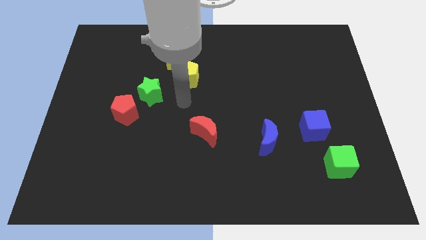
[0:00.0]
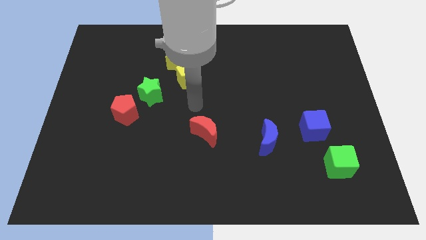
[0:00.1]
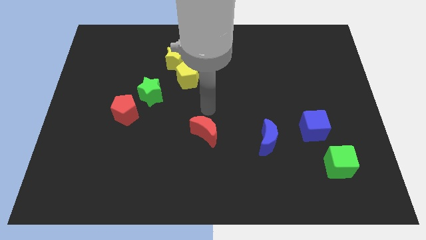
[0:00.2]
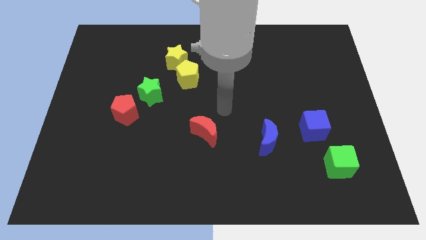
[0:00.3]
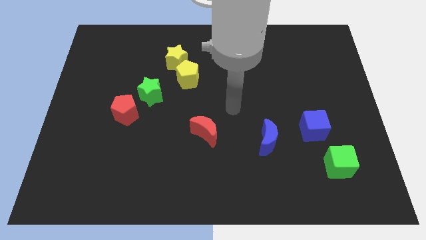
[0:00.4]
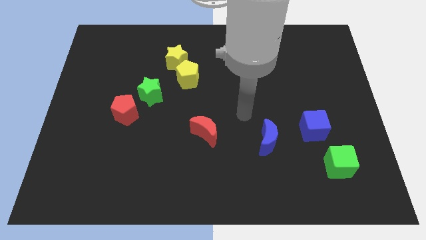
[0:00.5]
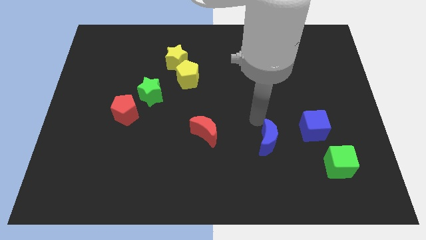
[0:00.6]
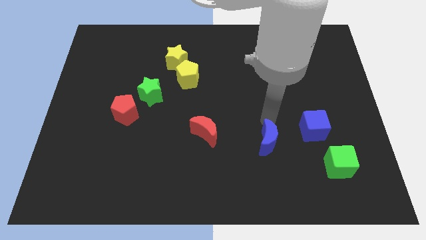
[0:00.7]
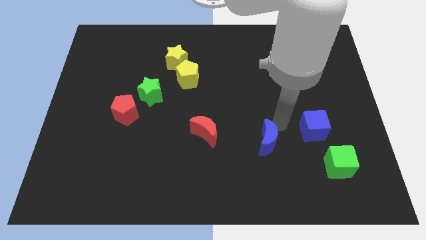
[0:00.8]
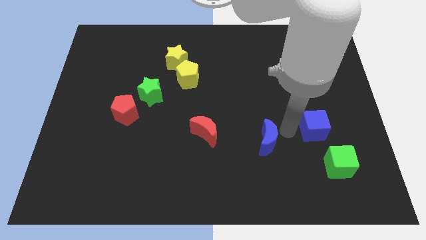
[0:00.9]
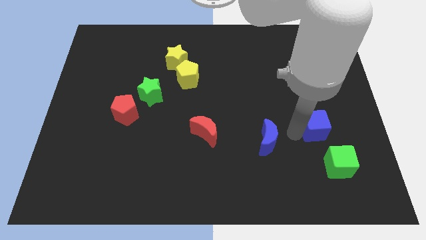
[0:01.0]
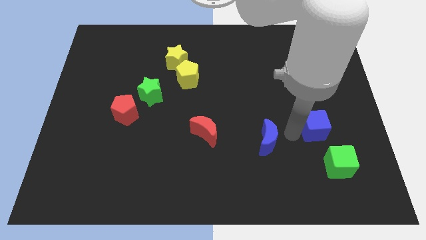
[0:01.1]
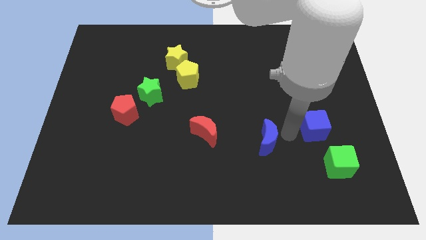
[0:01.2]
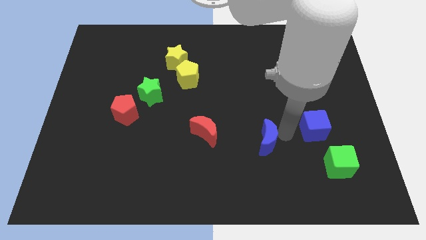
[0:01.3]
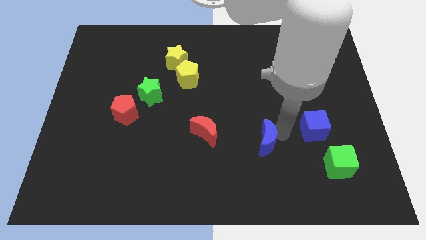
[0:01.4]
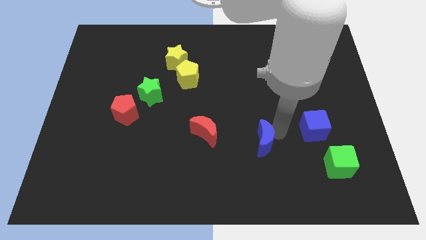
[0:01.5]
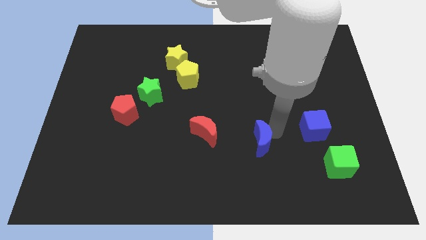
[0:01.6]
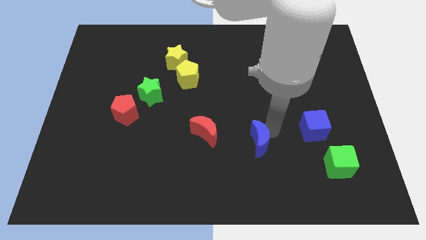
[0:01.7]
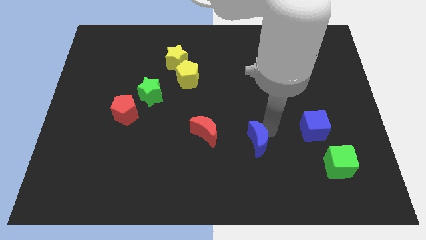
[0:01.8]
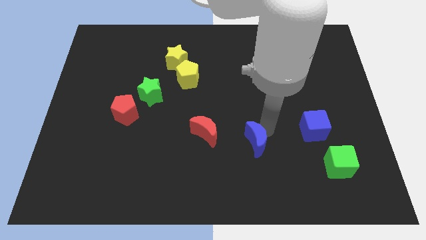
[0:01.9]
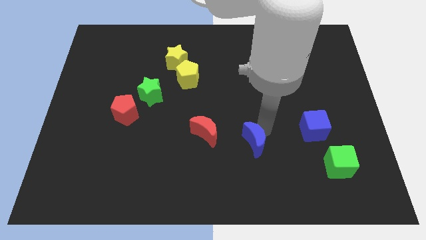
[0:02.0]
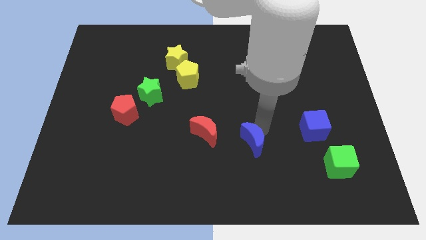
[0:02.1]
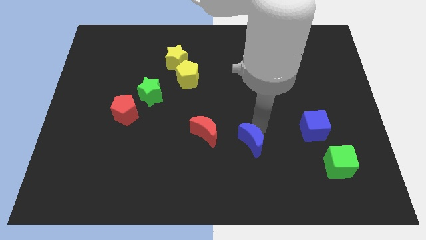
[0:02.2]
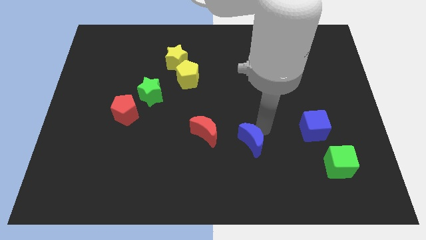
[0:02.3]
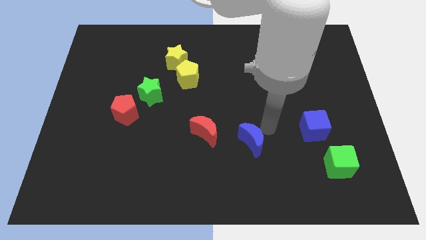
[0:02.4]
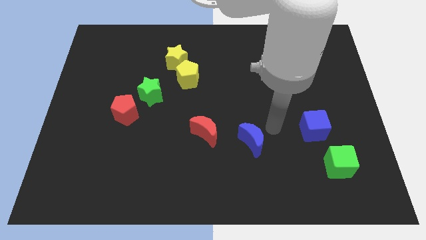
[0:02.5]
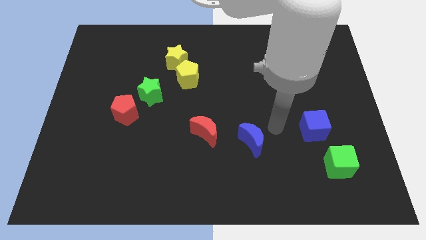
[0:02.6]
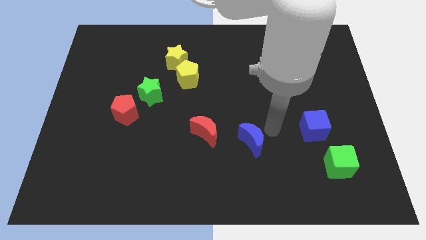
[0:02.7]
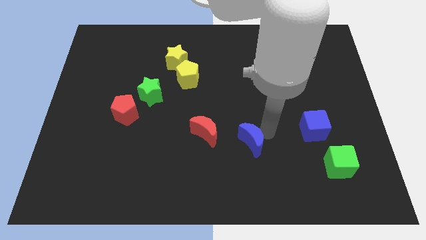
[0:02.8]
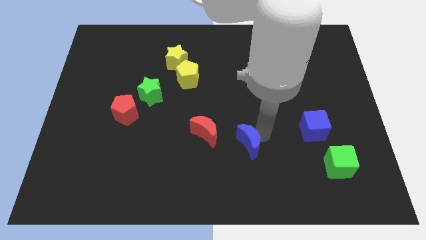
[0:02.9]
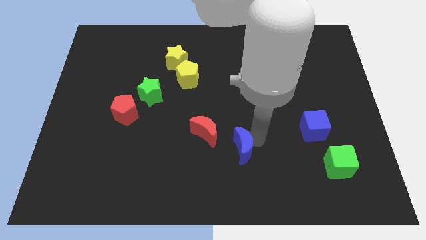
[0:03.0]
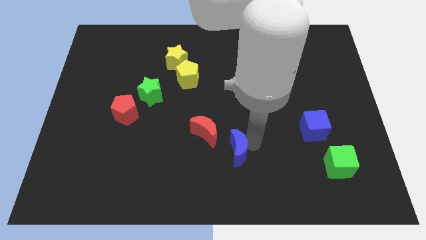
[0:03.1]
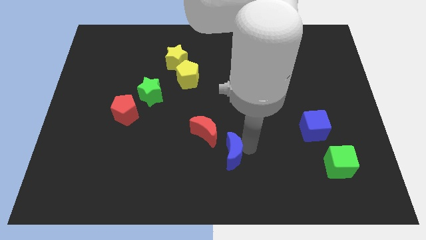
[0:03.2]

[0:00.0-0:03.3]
move the blue moon left somewhat

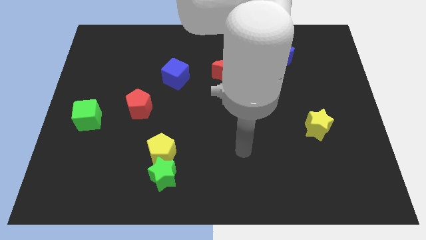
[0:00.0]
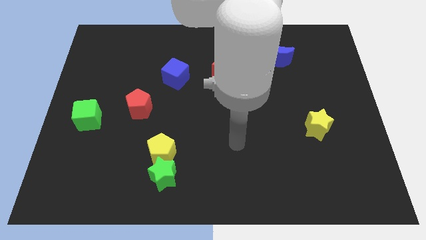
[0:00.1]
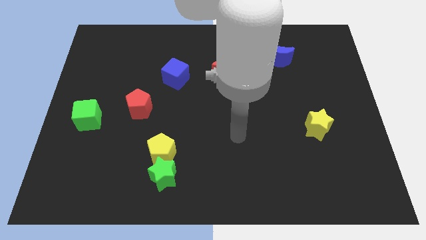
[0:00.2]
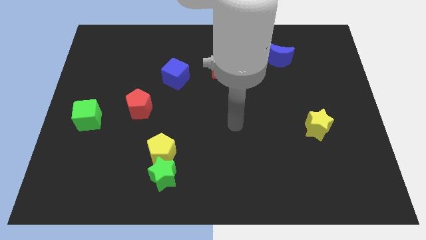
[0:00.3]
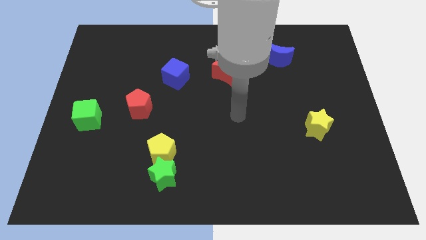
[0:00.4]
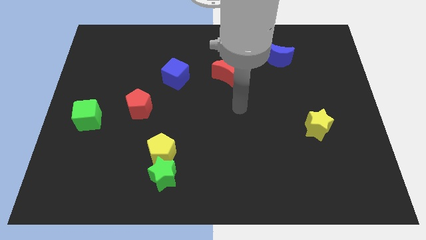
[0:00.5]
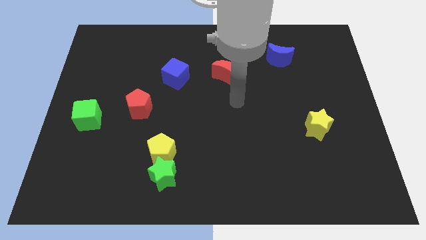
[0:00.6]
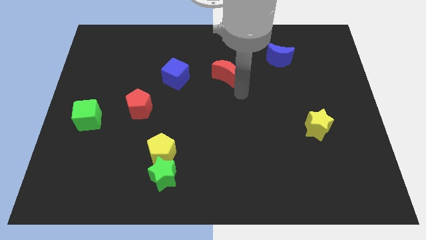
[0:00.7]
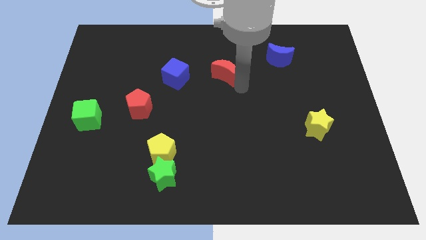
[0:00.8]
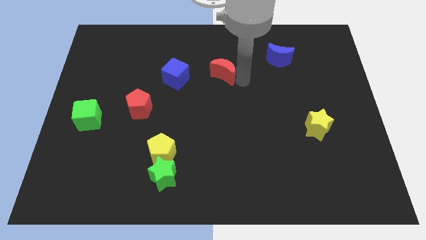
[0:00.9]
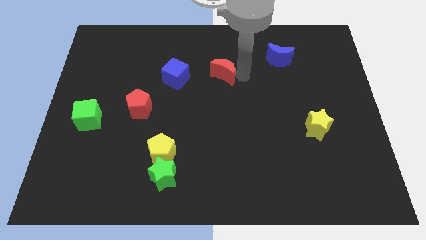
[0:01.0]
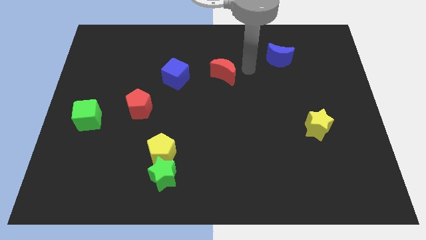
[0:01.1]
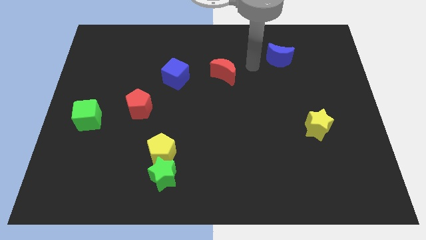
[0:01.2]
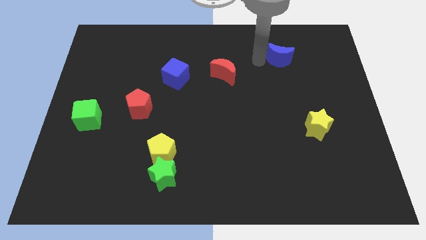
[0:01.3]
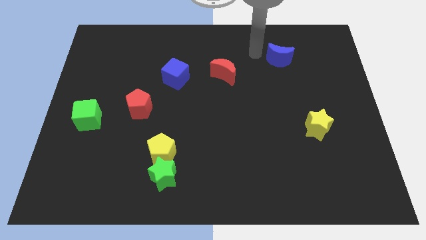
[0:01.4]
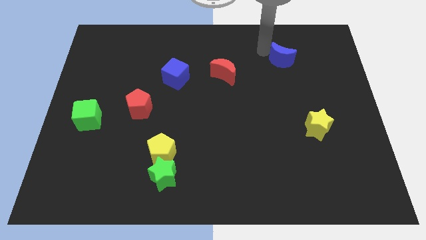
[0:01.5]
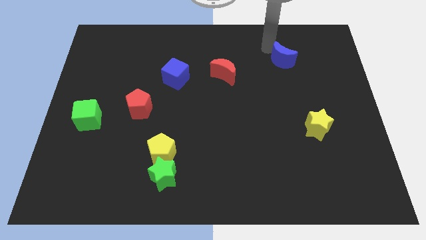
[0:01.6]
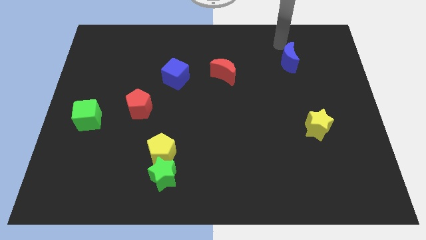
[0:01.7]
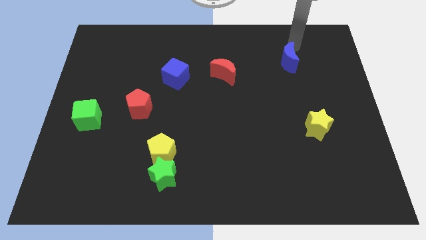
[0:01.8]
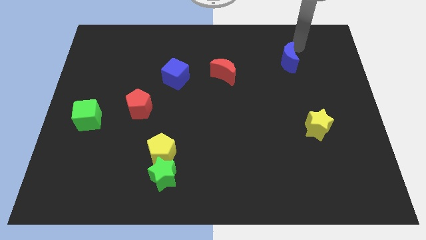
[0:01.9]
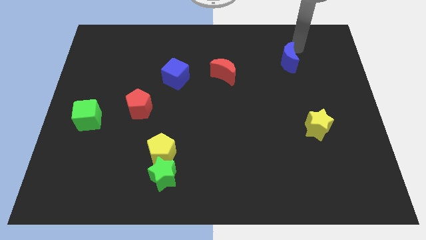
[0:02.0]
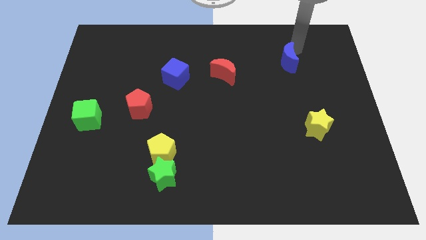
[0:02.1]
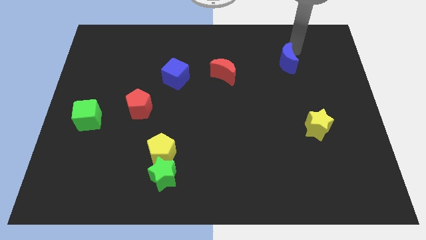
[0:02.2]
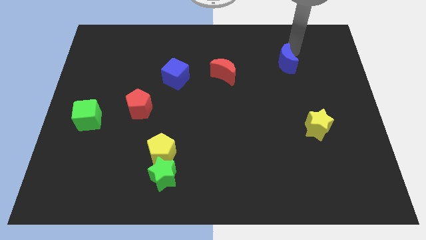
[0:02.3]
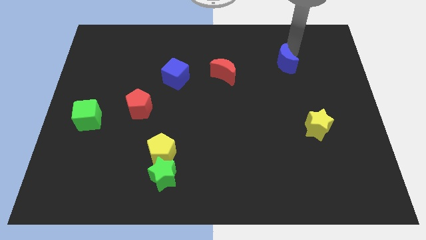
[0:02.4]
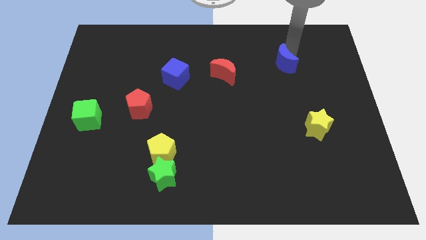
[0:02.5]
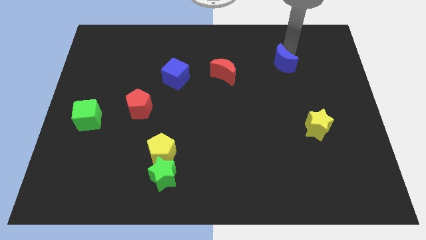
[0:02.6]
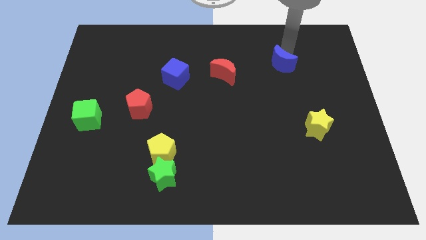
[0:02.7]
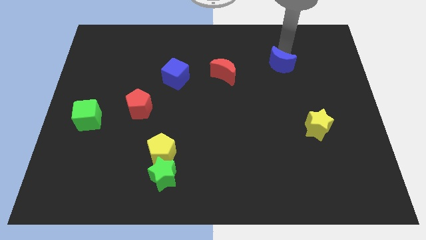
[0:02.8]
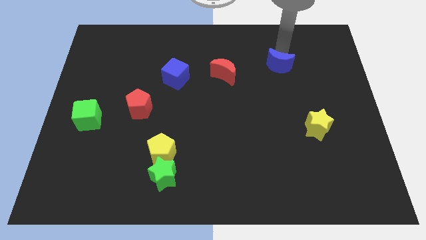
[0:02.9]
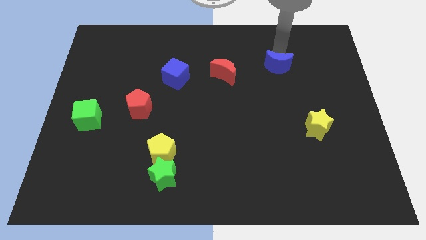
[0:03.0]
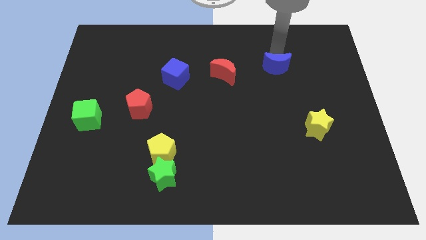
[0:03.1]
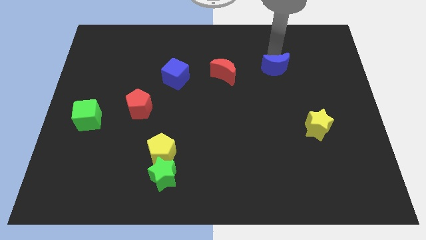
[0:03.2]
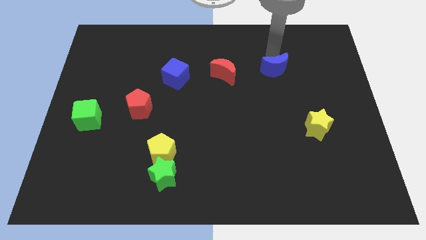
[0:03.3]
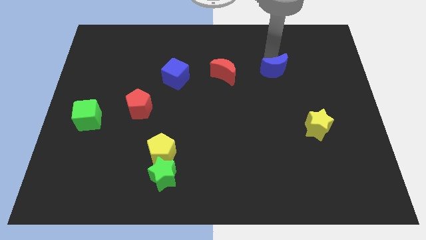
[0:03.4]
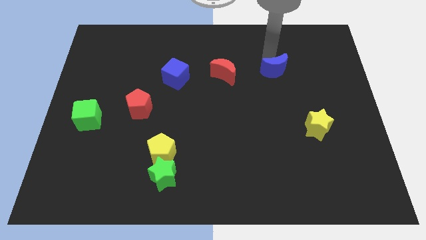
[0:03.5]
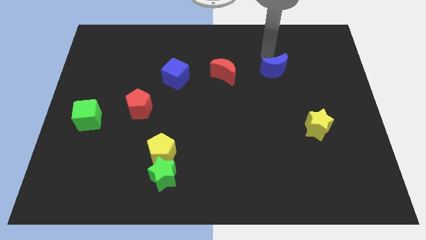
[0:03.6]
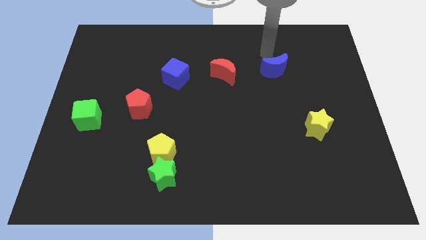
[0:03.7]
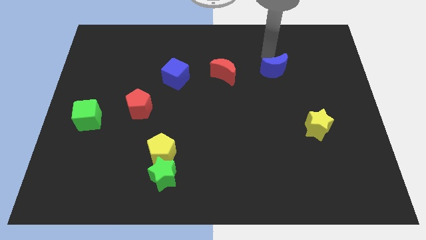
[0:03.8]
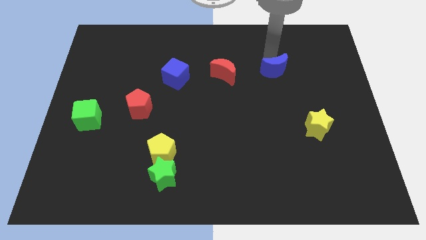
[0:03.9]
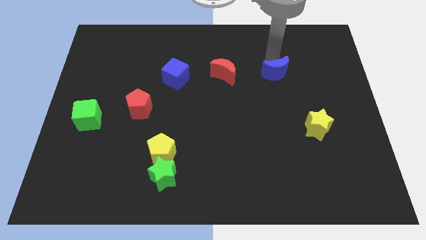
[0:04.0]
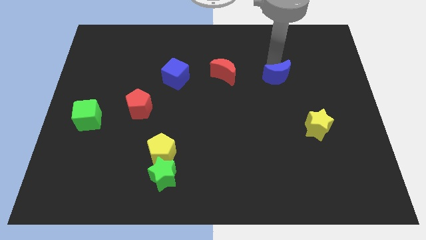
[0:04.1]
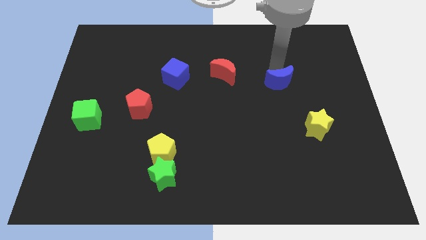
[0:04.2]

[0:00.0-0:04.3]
push the blue moon a little bit downwards

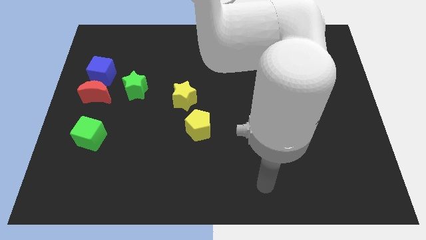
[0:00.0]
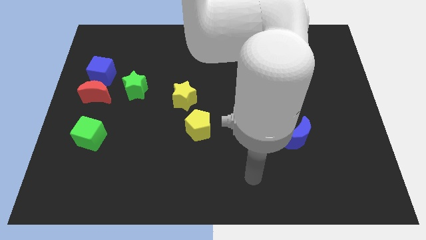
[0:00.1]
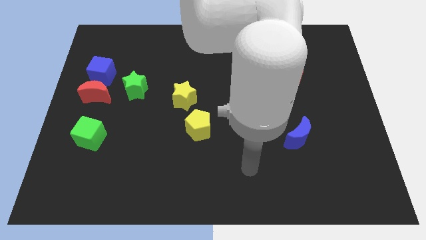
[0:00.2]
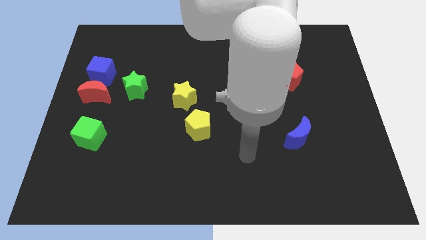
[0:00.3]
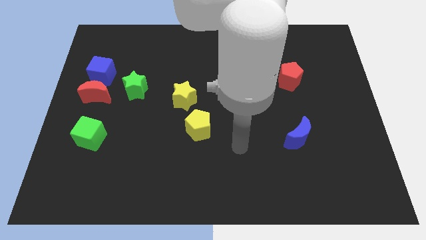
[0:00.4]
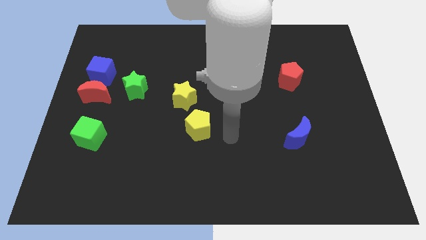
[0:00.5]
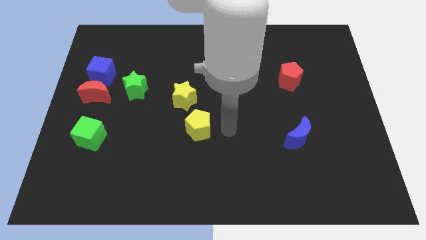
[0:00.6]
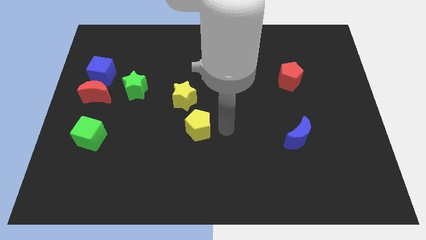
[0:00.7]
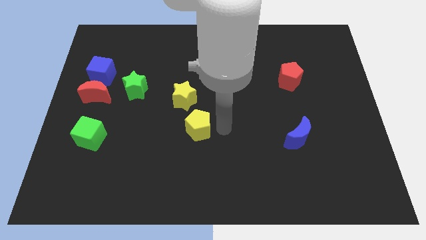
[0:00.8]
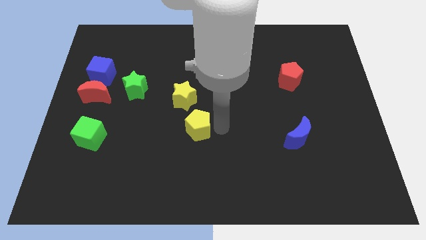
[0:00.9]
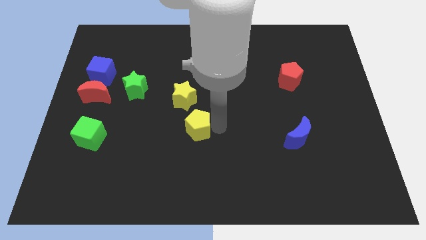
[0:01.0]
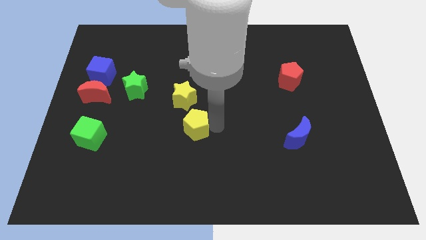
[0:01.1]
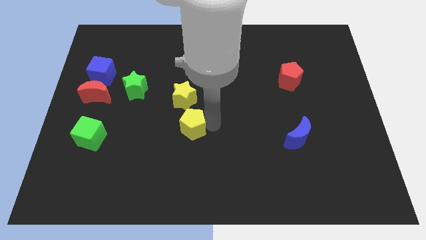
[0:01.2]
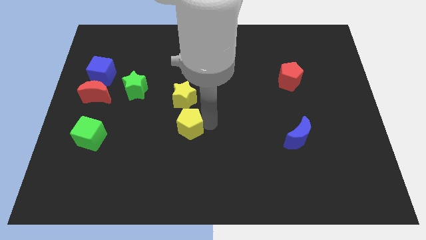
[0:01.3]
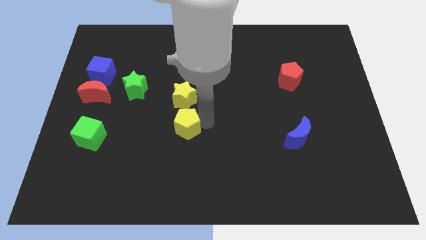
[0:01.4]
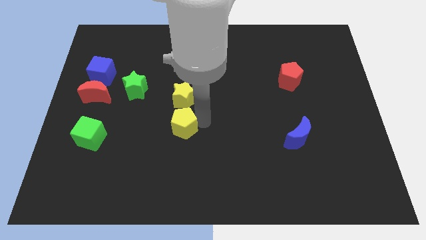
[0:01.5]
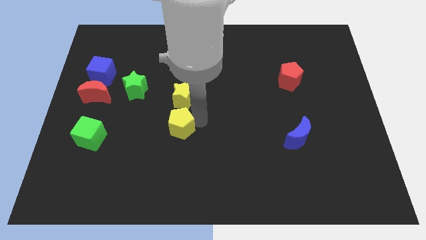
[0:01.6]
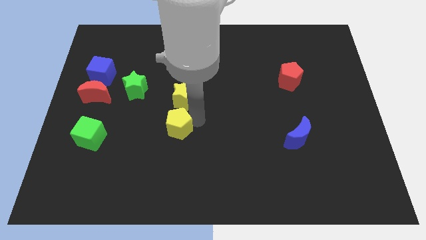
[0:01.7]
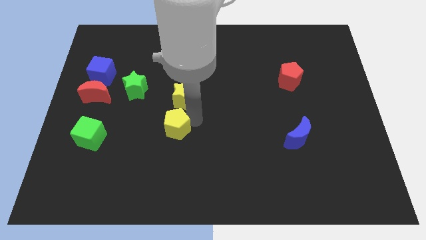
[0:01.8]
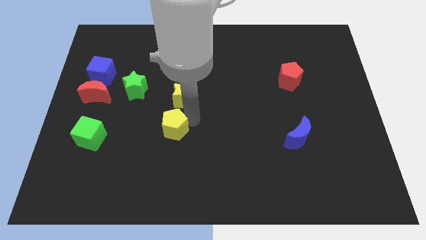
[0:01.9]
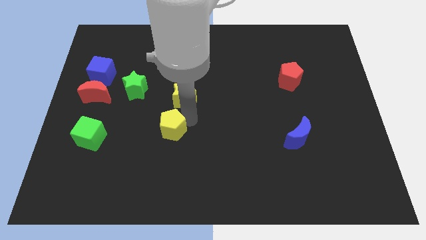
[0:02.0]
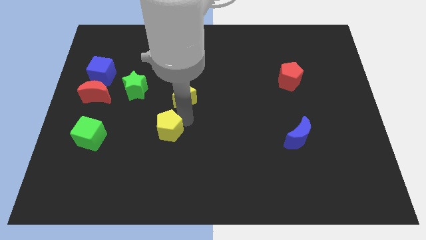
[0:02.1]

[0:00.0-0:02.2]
move the yellow pentagon slightly left
